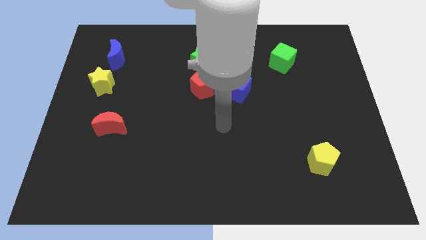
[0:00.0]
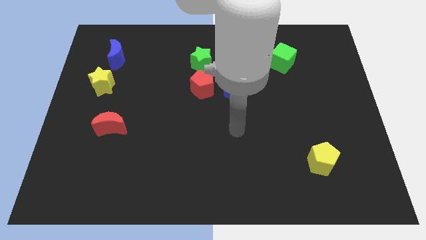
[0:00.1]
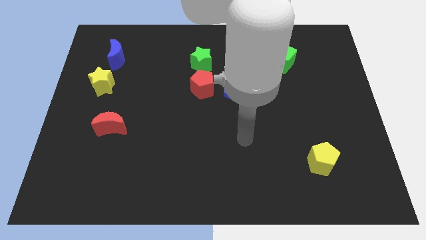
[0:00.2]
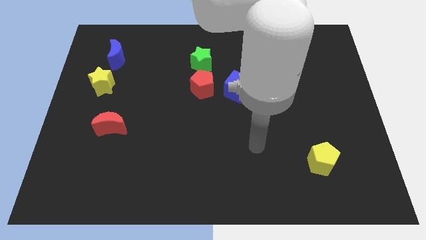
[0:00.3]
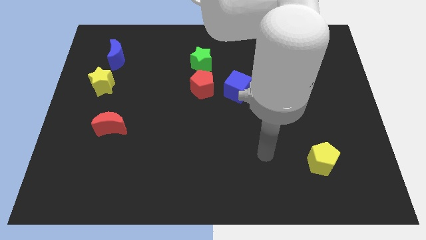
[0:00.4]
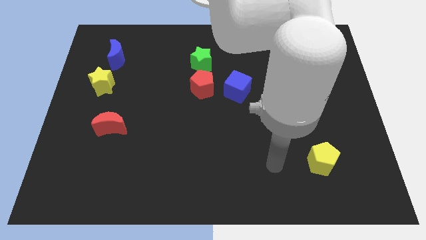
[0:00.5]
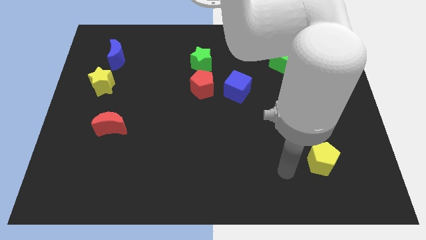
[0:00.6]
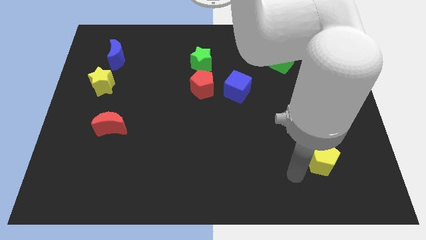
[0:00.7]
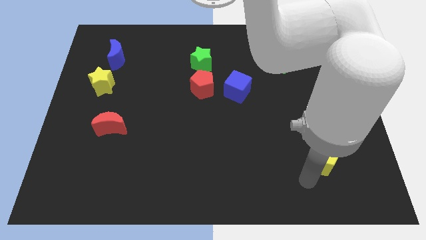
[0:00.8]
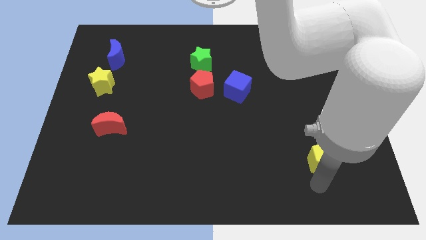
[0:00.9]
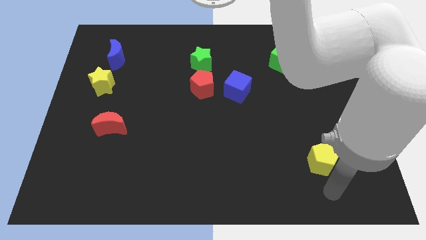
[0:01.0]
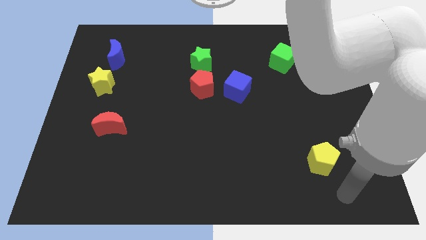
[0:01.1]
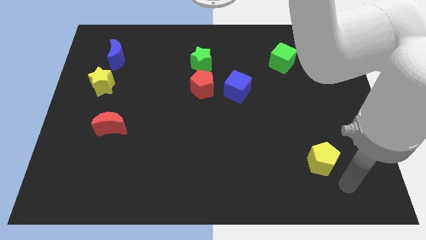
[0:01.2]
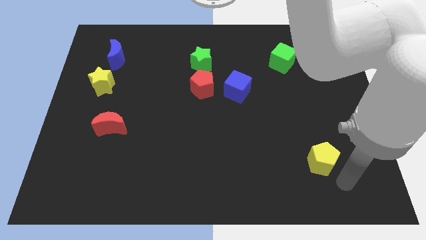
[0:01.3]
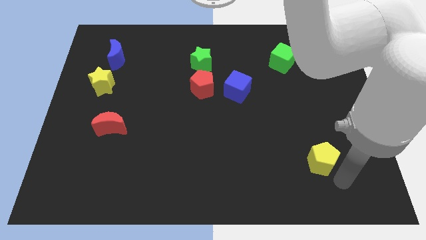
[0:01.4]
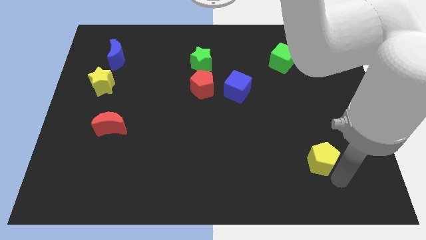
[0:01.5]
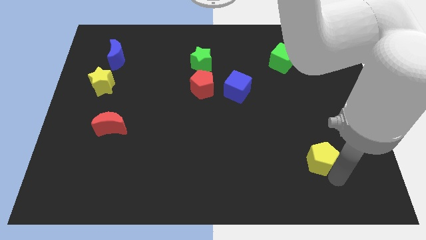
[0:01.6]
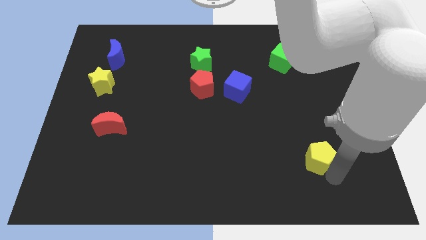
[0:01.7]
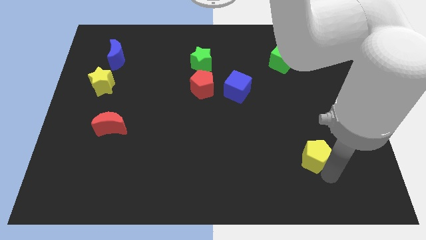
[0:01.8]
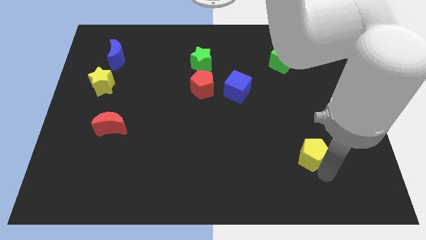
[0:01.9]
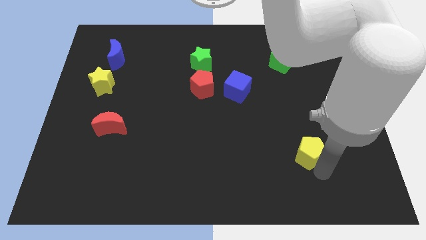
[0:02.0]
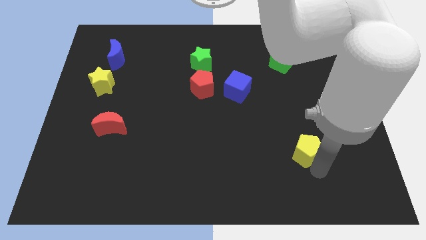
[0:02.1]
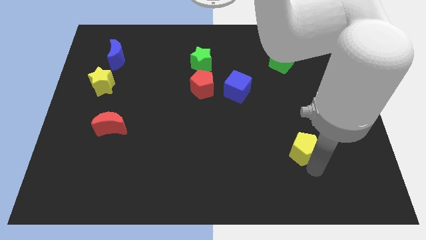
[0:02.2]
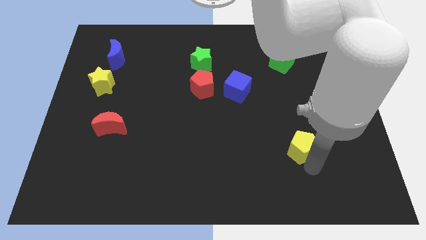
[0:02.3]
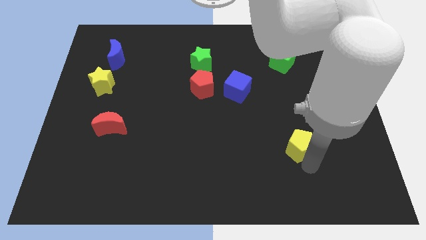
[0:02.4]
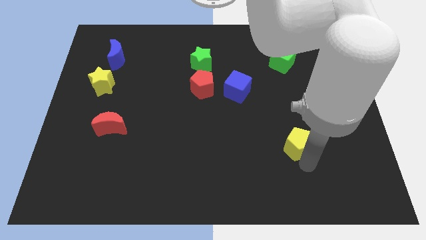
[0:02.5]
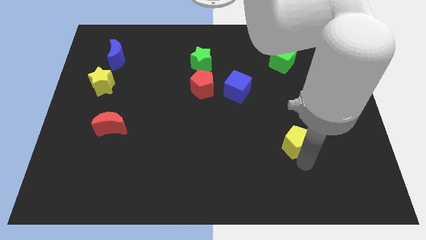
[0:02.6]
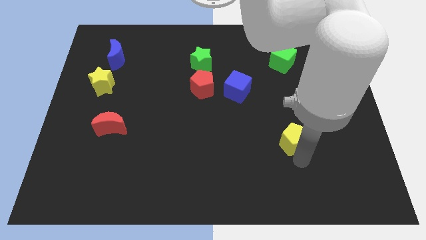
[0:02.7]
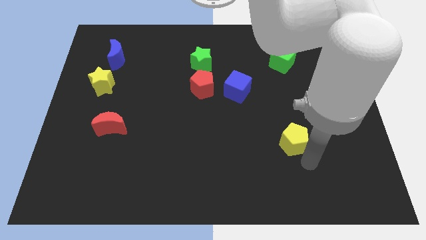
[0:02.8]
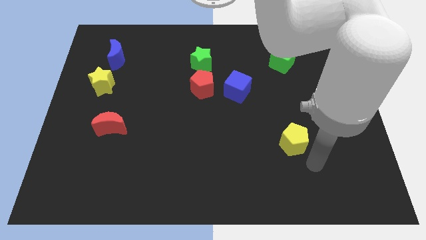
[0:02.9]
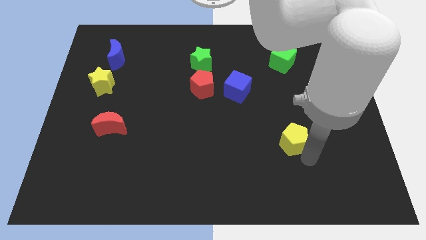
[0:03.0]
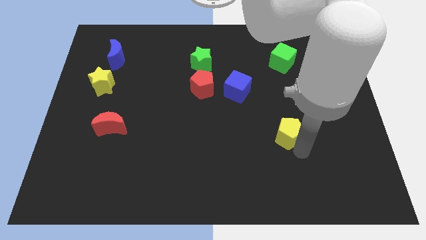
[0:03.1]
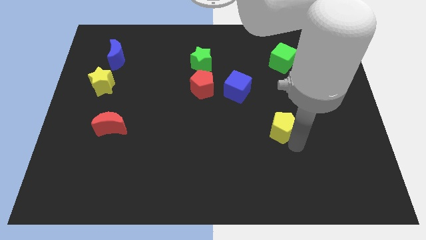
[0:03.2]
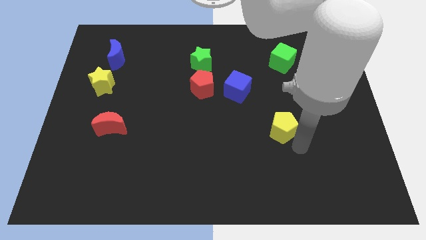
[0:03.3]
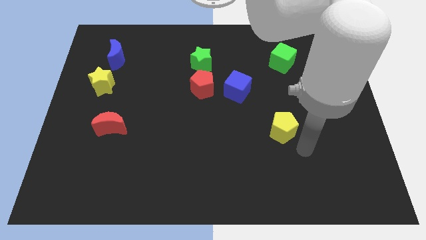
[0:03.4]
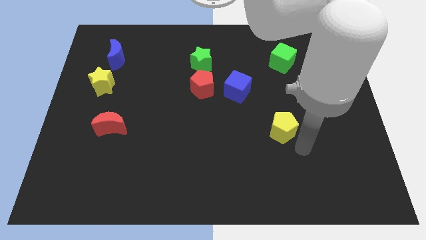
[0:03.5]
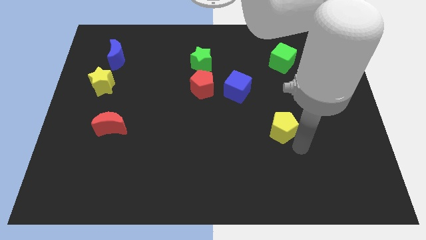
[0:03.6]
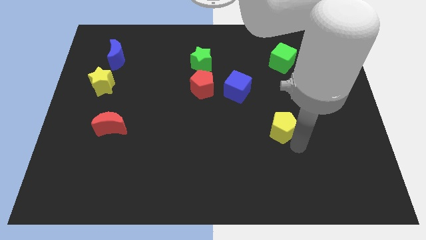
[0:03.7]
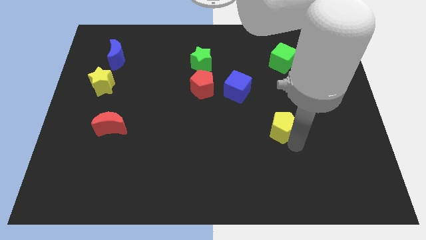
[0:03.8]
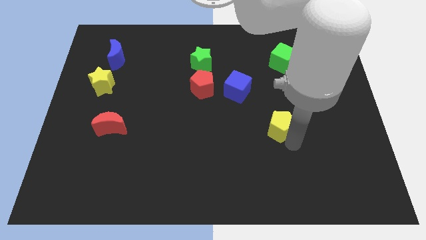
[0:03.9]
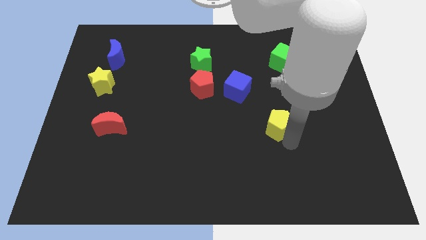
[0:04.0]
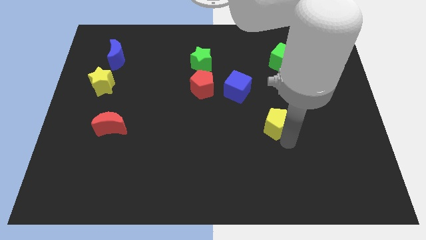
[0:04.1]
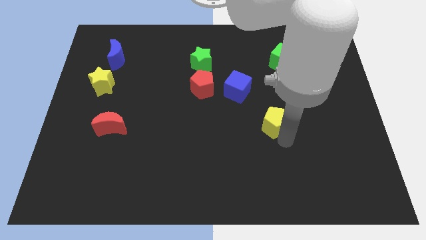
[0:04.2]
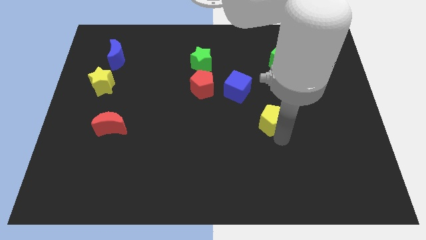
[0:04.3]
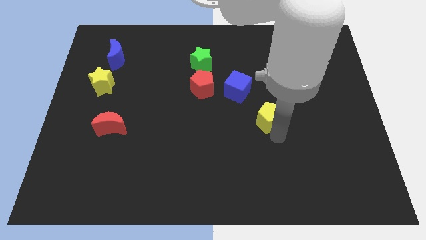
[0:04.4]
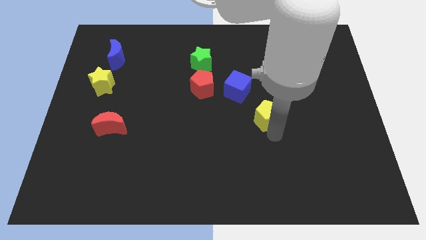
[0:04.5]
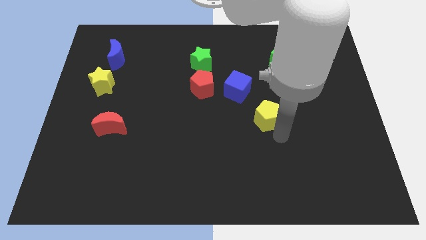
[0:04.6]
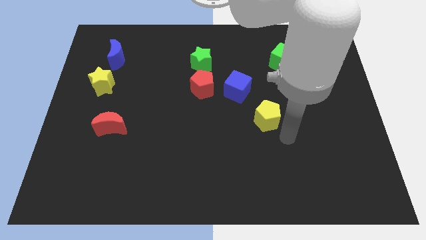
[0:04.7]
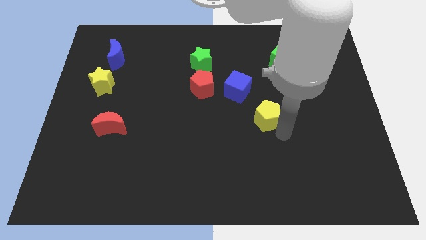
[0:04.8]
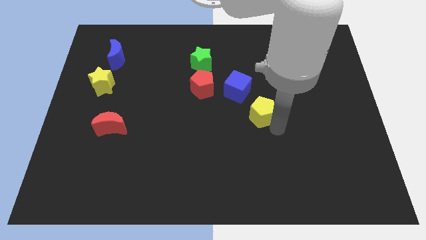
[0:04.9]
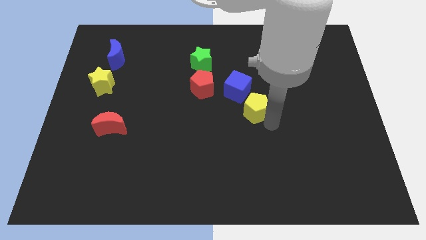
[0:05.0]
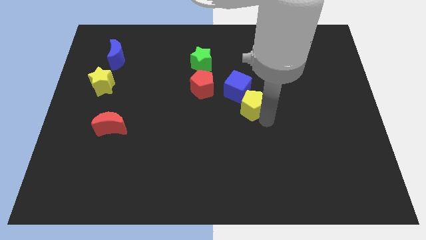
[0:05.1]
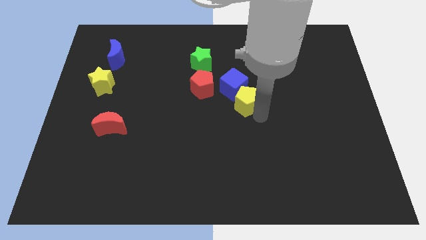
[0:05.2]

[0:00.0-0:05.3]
push the yellow pentagon next to the blue cube

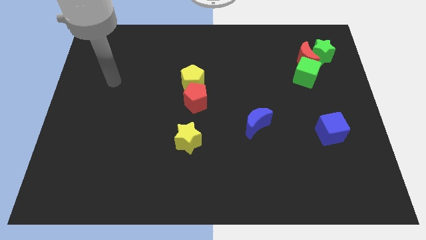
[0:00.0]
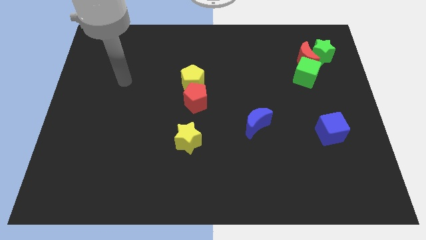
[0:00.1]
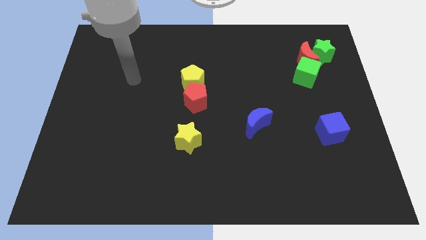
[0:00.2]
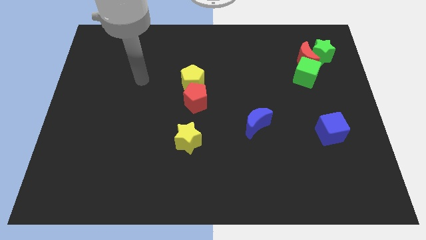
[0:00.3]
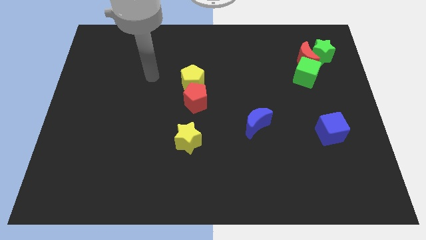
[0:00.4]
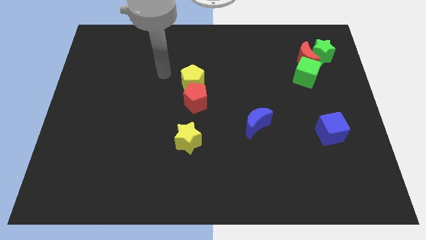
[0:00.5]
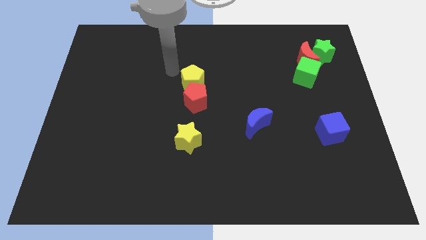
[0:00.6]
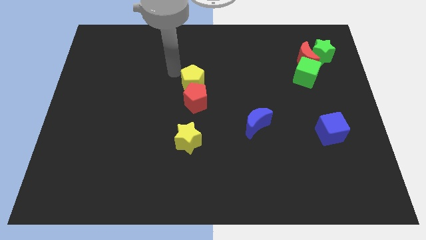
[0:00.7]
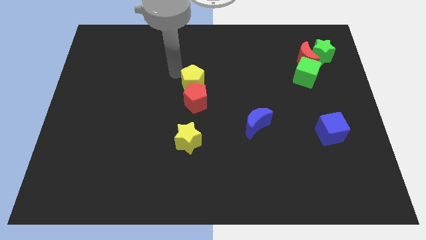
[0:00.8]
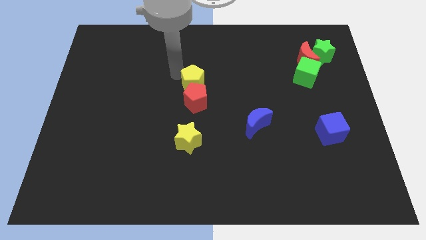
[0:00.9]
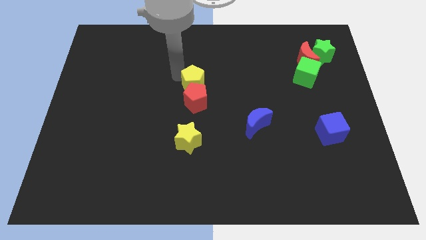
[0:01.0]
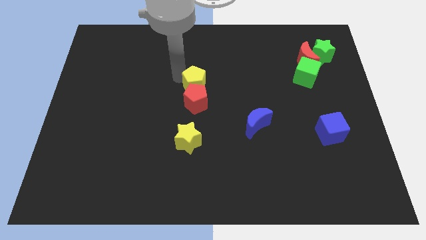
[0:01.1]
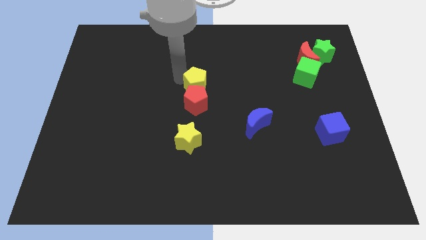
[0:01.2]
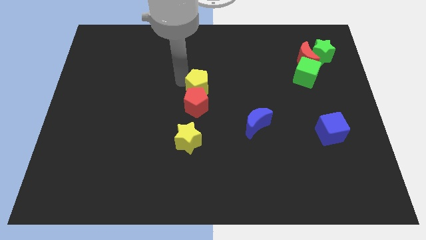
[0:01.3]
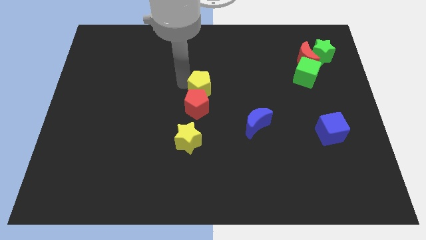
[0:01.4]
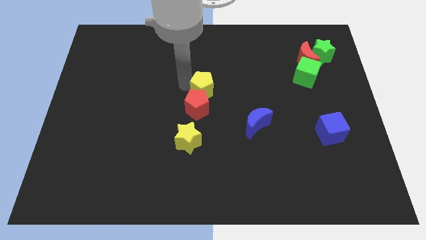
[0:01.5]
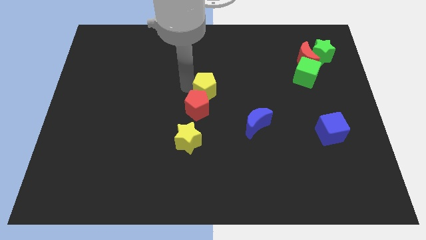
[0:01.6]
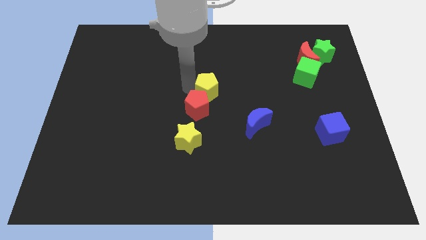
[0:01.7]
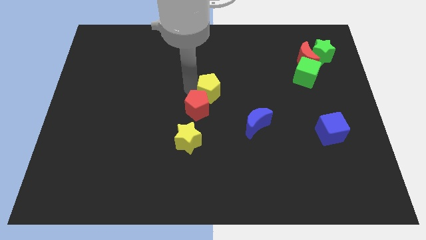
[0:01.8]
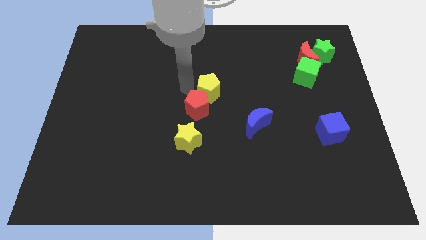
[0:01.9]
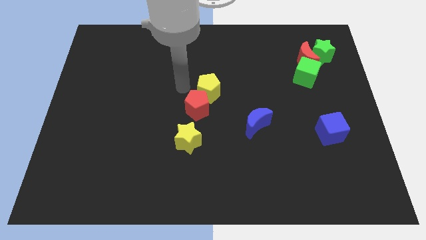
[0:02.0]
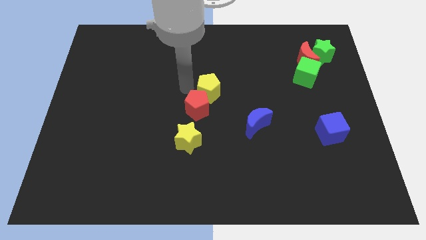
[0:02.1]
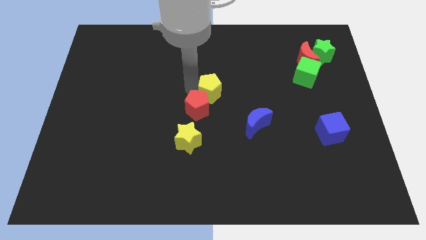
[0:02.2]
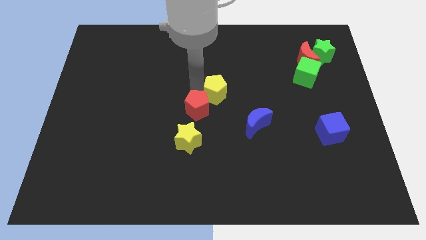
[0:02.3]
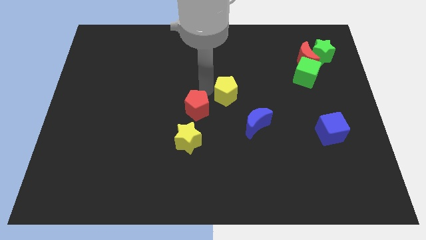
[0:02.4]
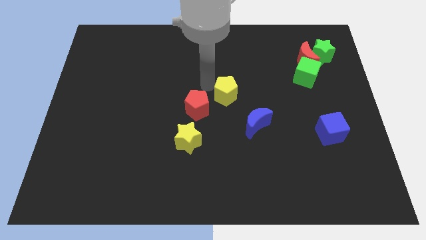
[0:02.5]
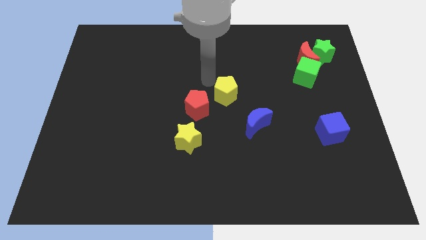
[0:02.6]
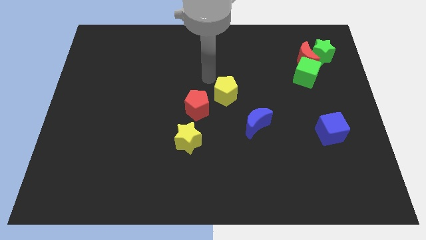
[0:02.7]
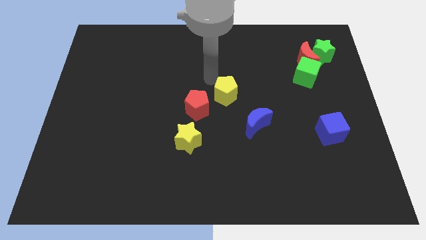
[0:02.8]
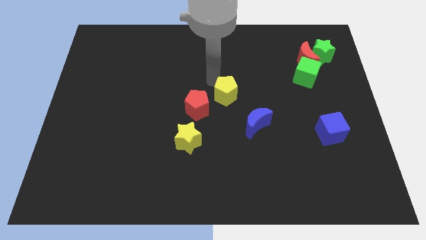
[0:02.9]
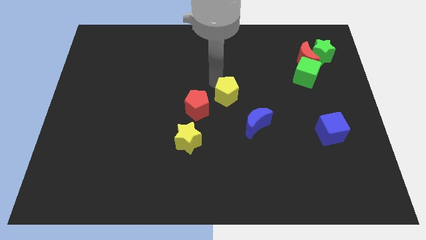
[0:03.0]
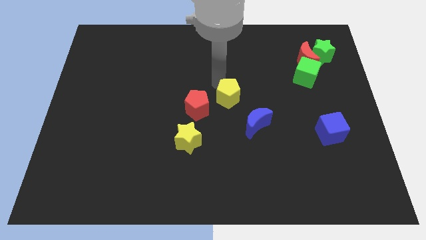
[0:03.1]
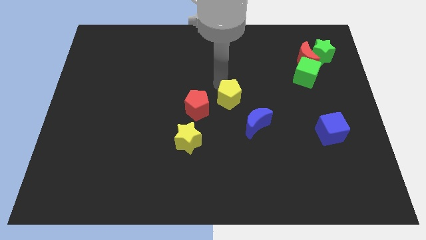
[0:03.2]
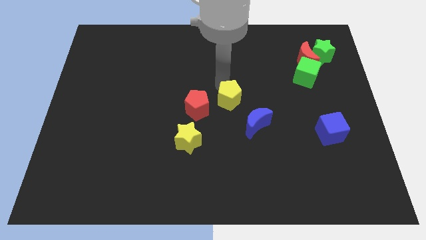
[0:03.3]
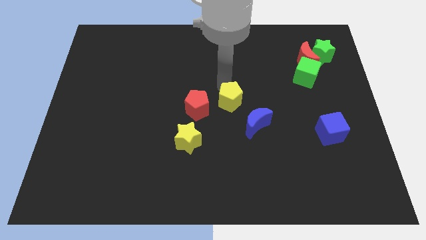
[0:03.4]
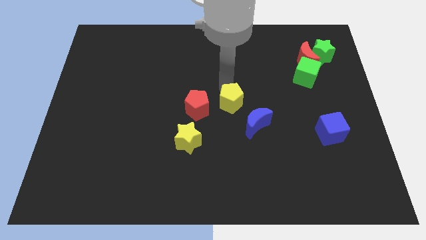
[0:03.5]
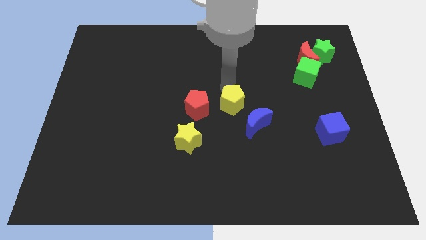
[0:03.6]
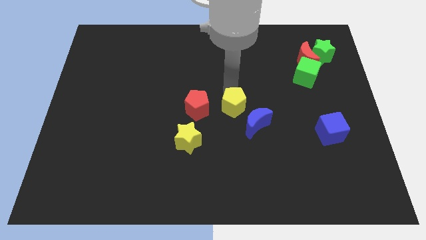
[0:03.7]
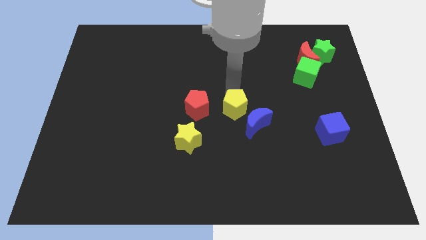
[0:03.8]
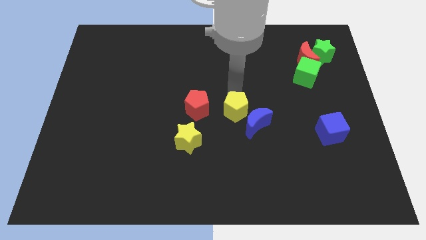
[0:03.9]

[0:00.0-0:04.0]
slide the yellow pentagon towards the blue moon
